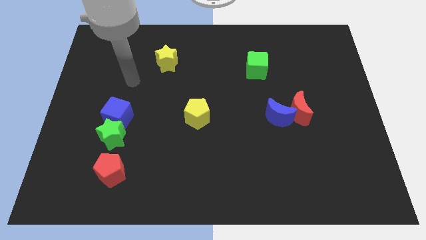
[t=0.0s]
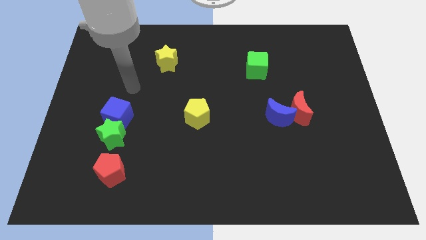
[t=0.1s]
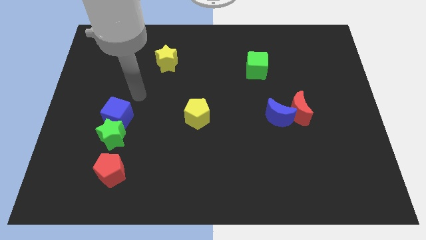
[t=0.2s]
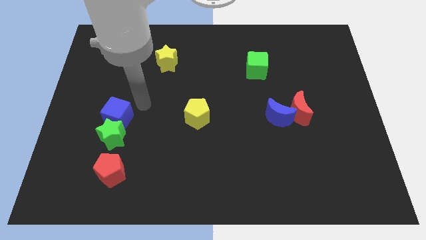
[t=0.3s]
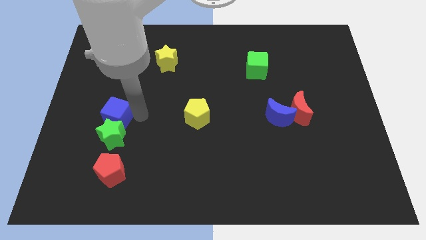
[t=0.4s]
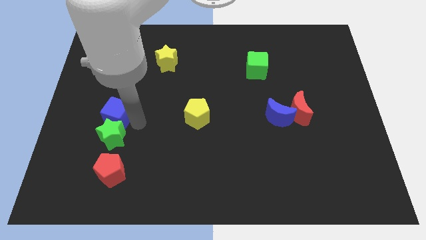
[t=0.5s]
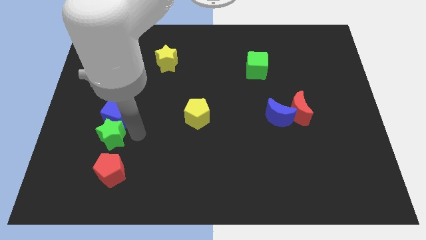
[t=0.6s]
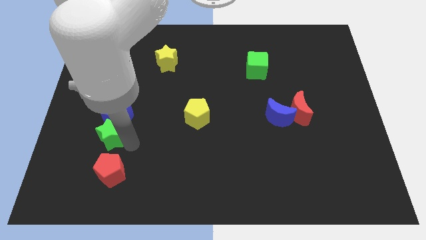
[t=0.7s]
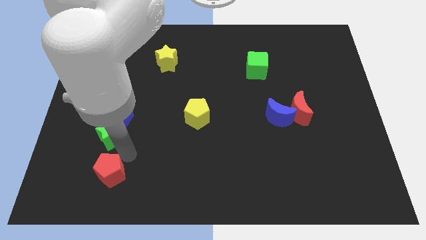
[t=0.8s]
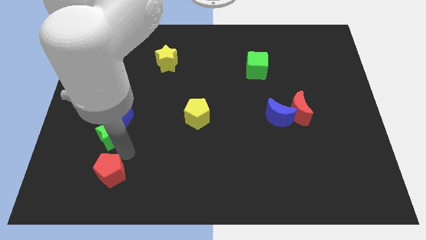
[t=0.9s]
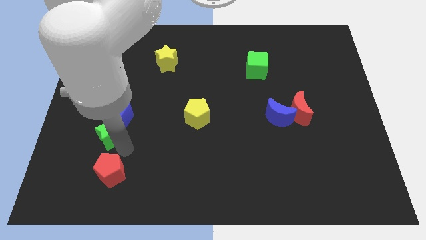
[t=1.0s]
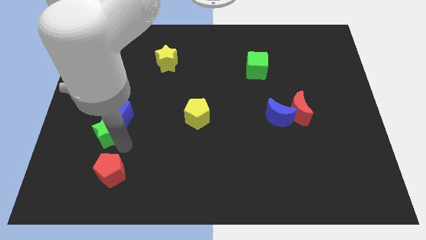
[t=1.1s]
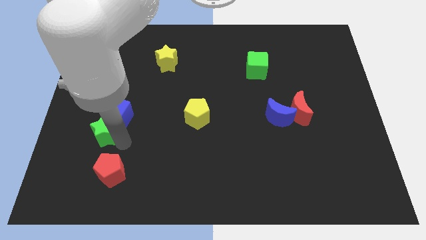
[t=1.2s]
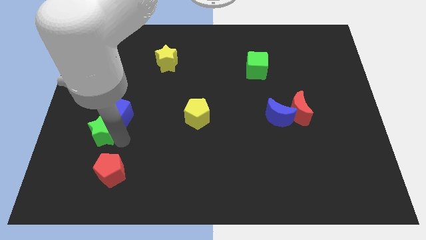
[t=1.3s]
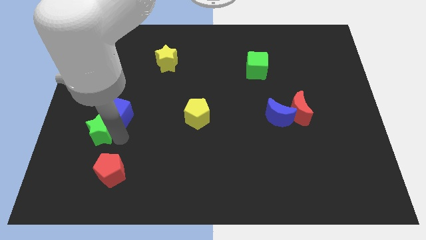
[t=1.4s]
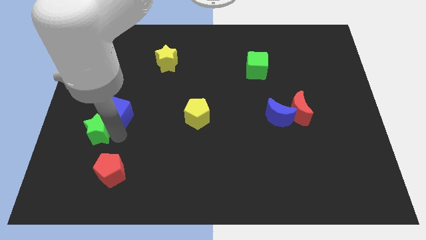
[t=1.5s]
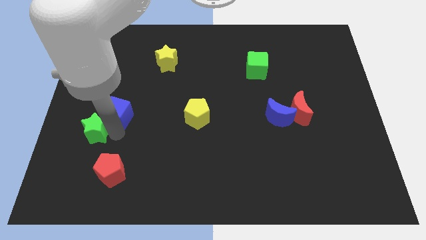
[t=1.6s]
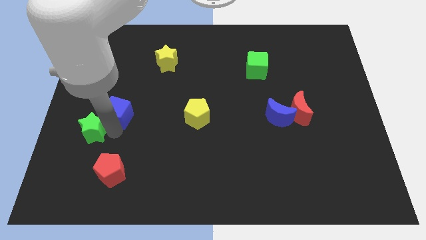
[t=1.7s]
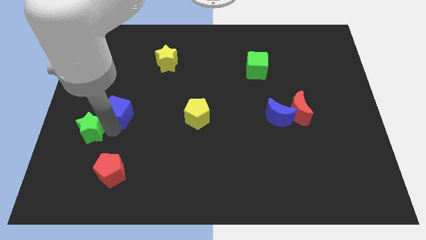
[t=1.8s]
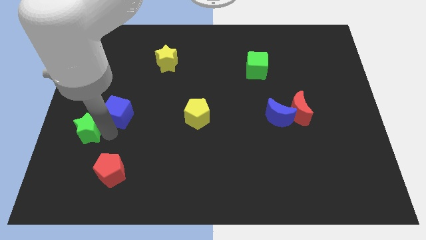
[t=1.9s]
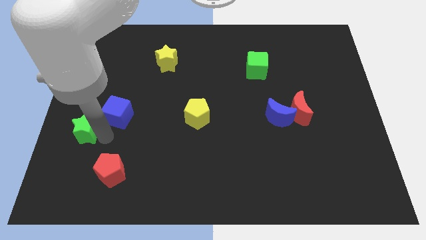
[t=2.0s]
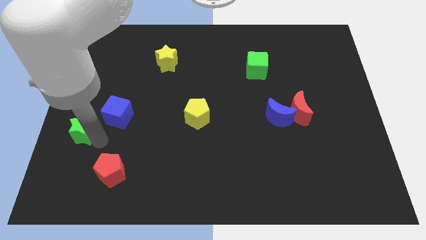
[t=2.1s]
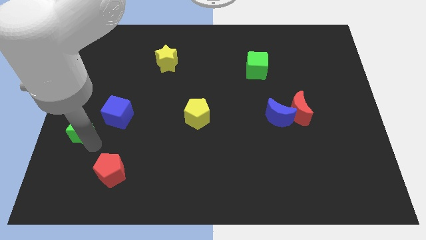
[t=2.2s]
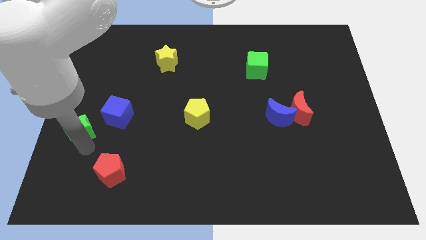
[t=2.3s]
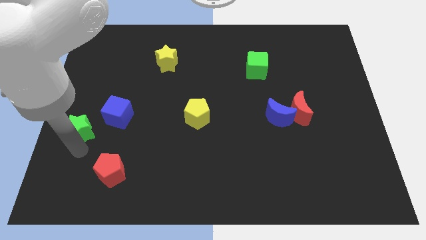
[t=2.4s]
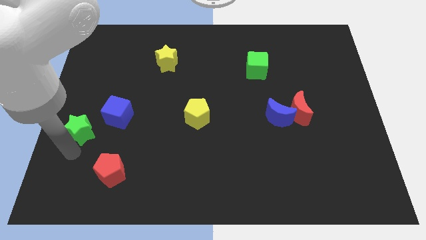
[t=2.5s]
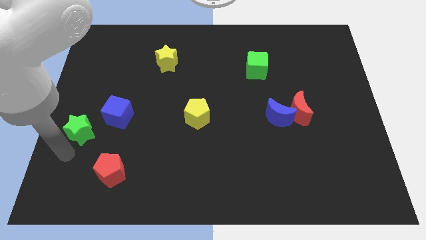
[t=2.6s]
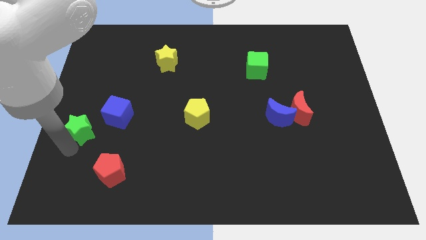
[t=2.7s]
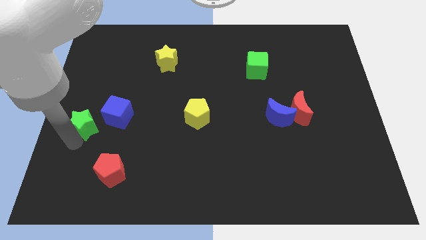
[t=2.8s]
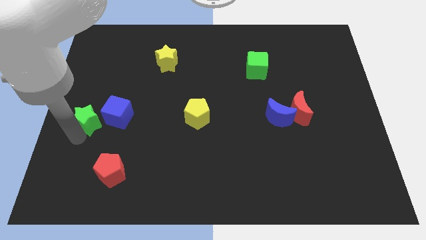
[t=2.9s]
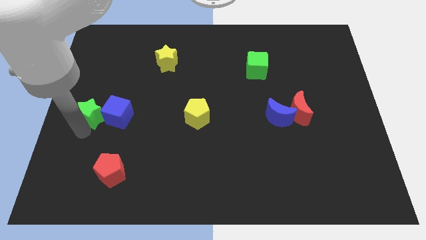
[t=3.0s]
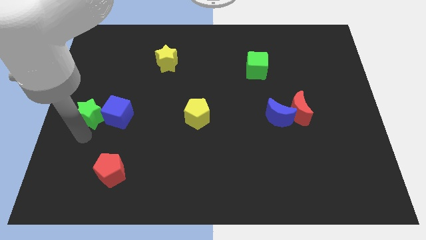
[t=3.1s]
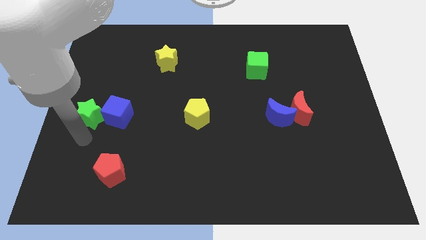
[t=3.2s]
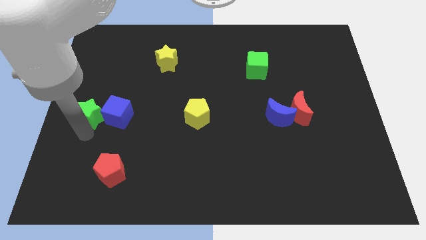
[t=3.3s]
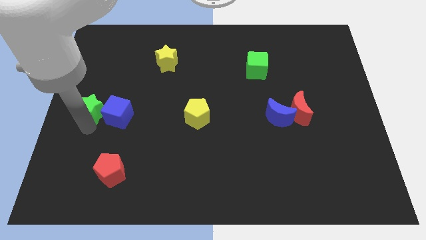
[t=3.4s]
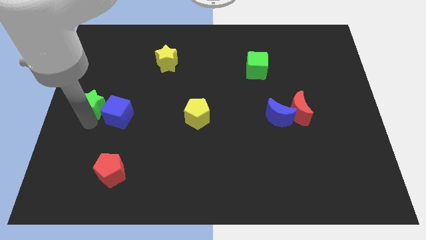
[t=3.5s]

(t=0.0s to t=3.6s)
slide the green star upwards a little bit

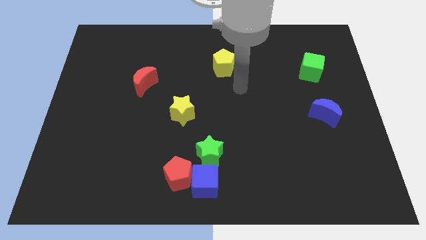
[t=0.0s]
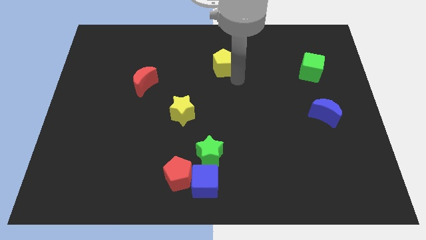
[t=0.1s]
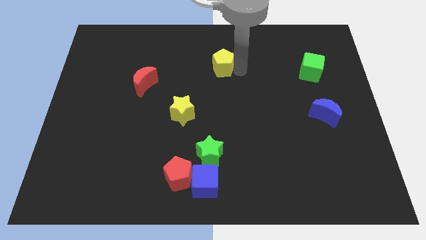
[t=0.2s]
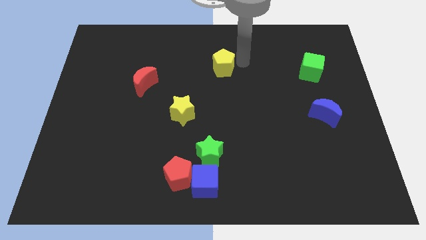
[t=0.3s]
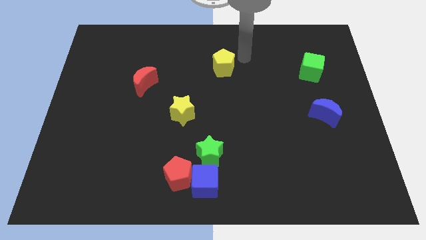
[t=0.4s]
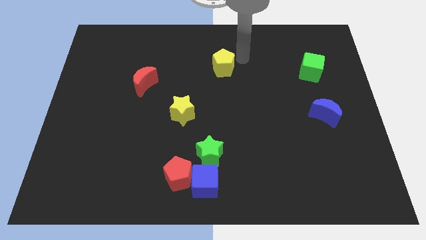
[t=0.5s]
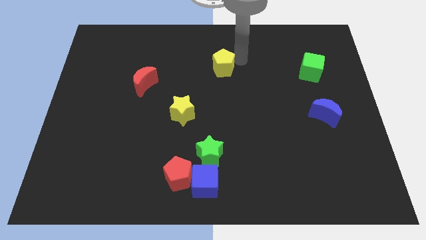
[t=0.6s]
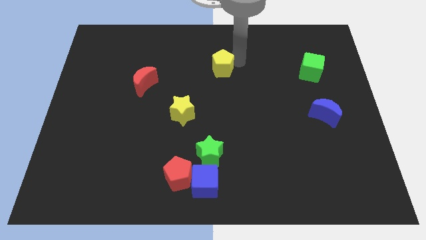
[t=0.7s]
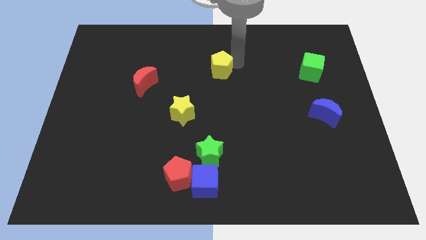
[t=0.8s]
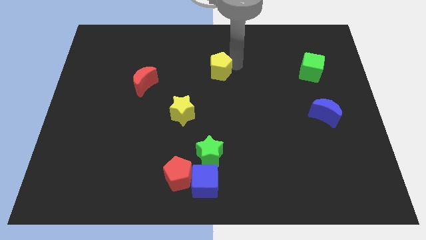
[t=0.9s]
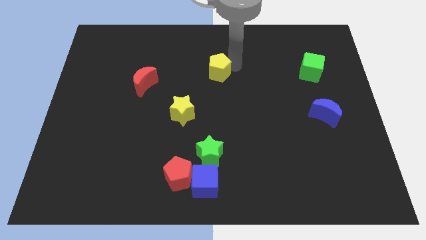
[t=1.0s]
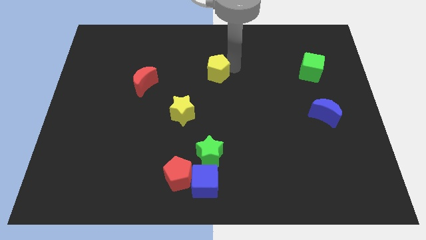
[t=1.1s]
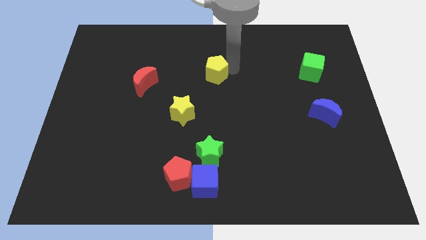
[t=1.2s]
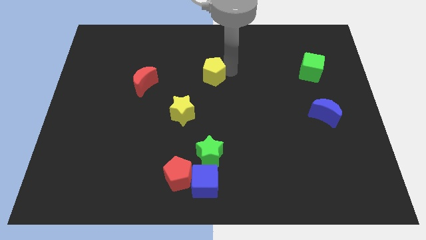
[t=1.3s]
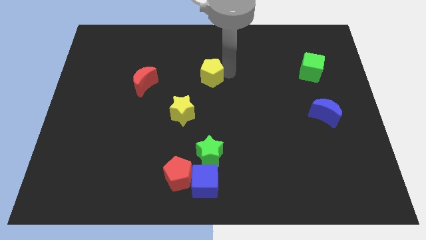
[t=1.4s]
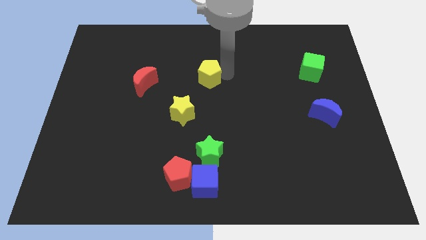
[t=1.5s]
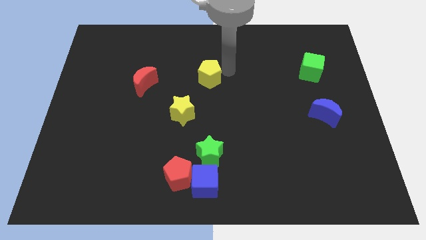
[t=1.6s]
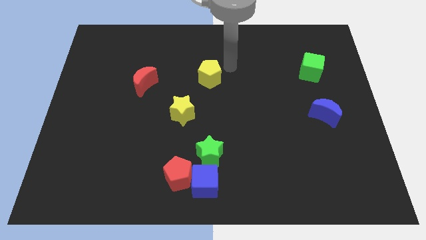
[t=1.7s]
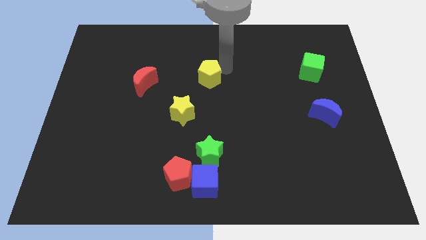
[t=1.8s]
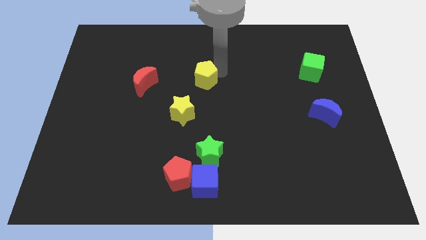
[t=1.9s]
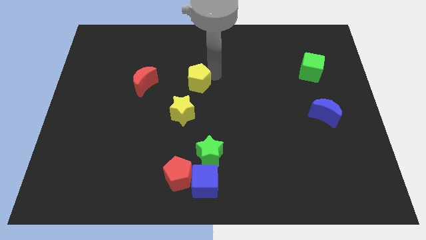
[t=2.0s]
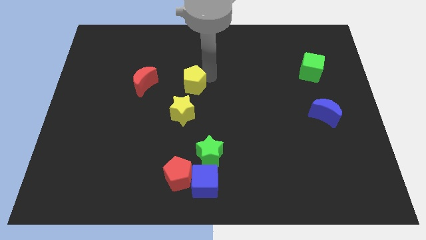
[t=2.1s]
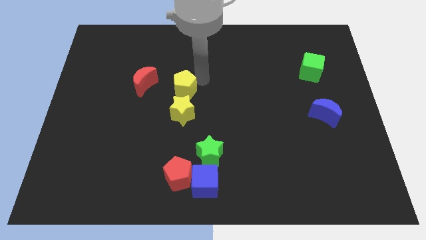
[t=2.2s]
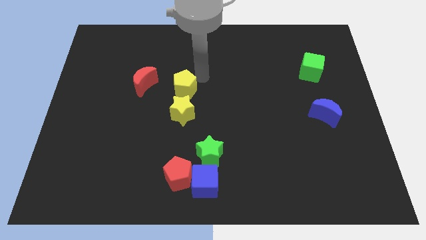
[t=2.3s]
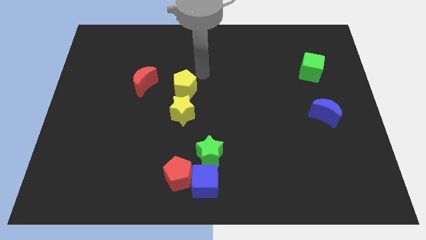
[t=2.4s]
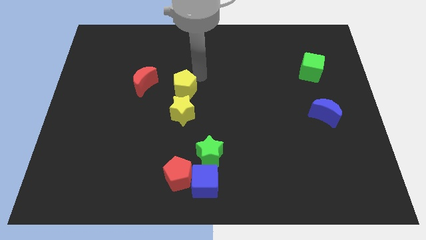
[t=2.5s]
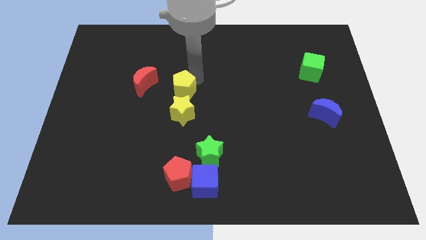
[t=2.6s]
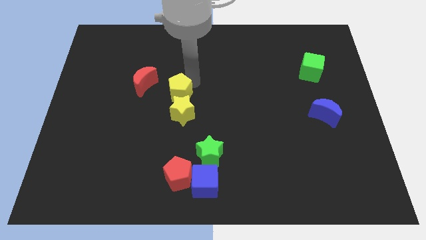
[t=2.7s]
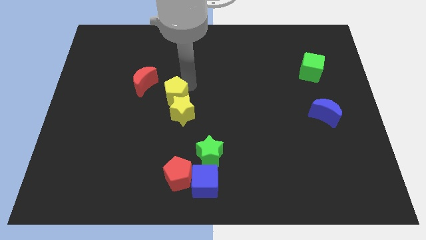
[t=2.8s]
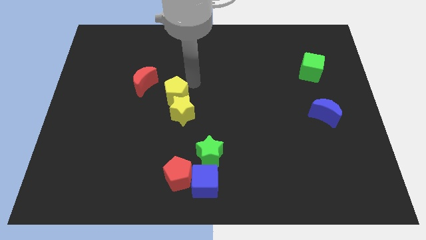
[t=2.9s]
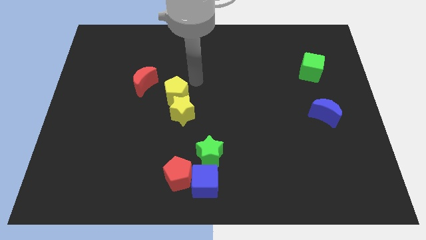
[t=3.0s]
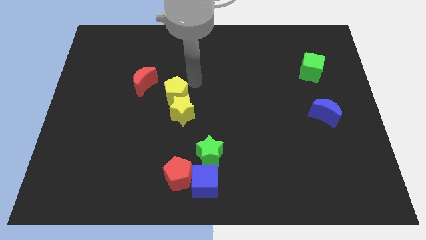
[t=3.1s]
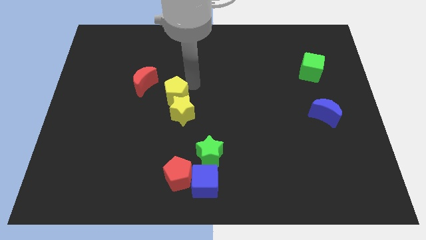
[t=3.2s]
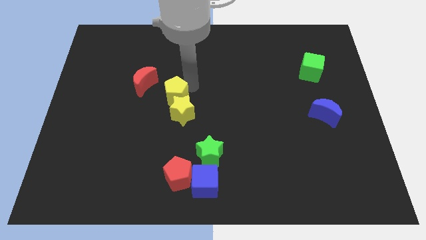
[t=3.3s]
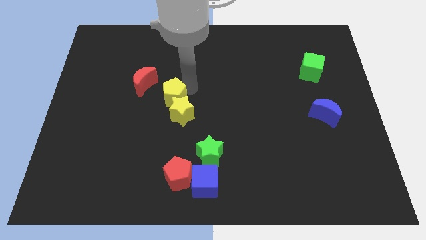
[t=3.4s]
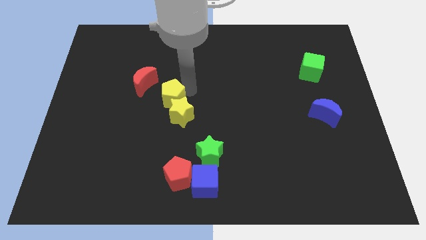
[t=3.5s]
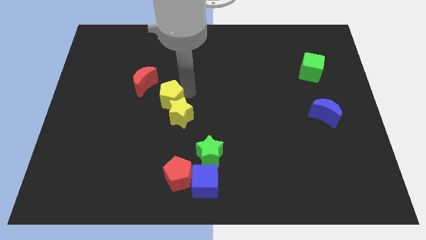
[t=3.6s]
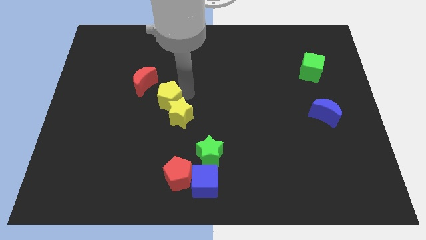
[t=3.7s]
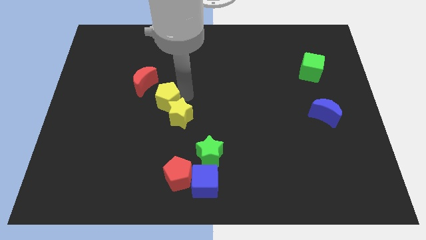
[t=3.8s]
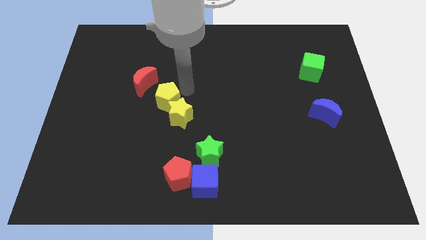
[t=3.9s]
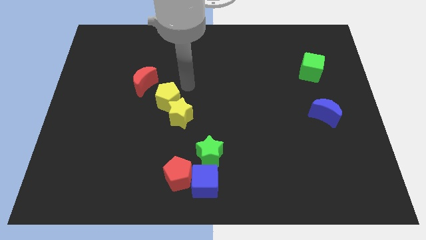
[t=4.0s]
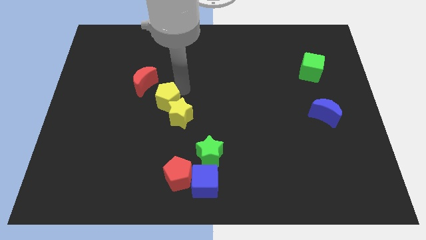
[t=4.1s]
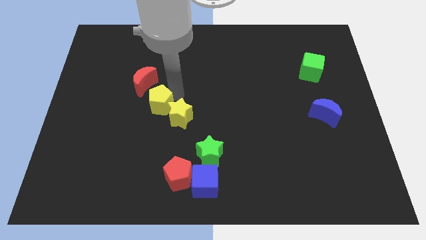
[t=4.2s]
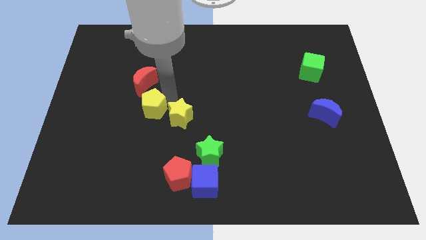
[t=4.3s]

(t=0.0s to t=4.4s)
slide the yellow pentagon down and then to the left

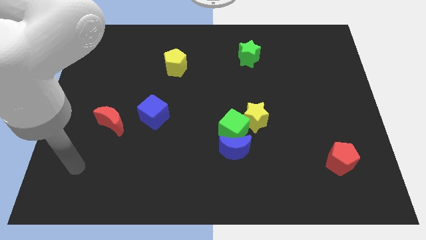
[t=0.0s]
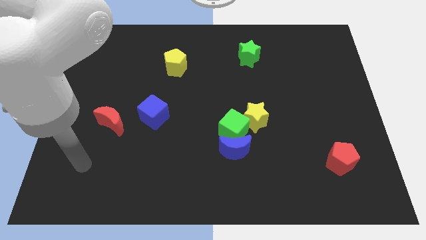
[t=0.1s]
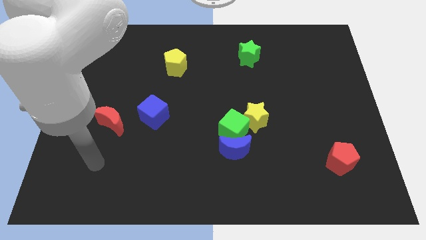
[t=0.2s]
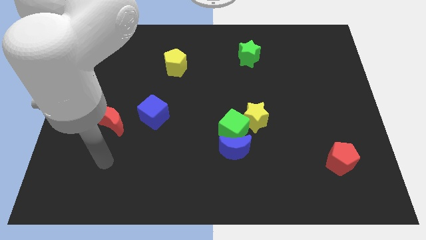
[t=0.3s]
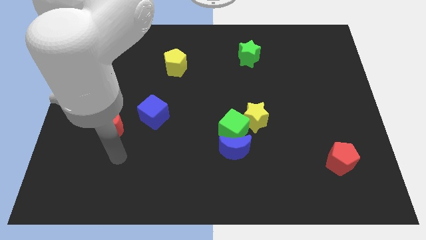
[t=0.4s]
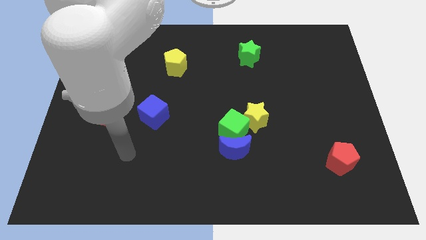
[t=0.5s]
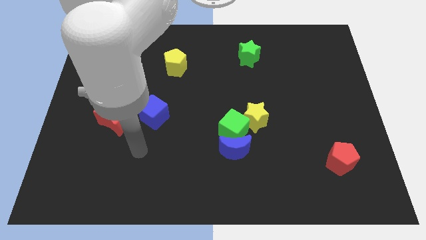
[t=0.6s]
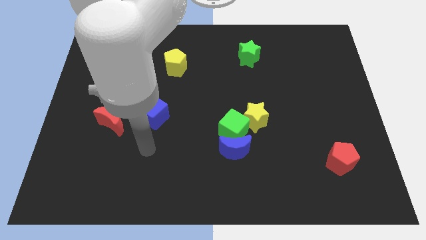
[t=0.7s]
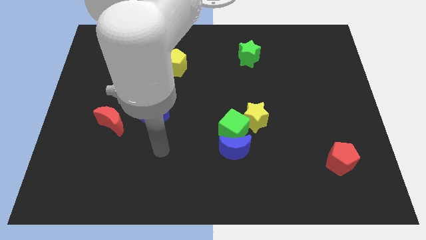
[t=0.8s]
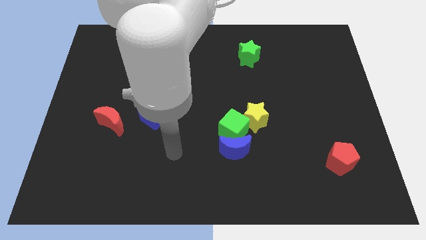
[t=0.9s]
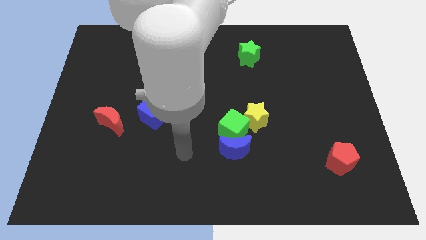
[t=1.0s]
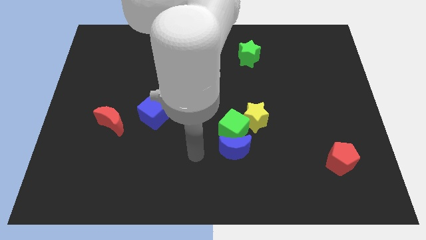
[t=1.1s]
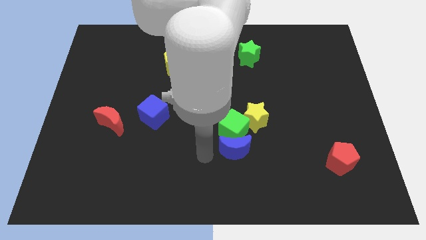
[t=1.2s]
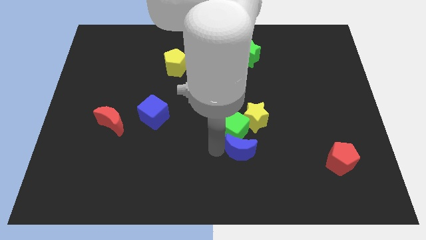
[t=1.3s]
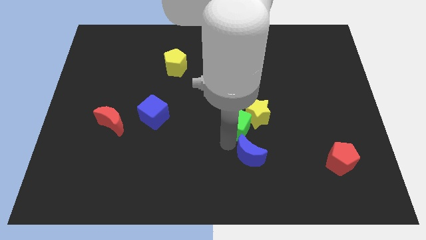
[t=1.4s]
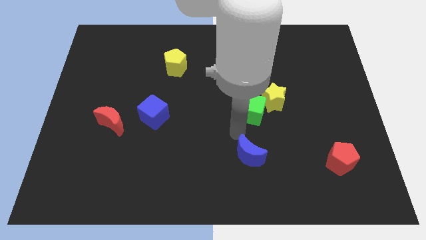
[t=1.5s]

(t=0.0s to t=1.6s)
slide the yellow star diagonally upwards and right somewhat
